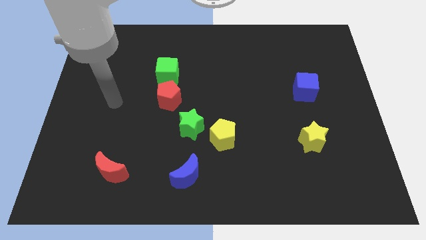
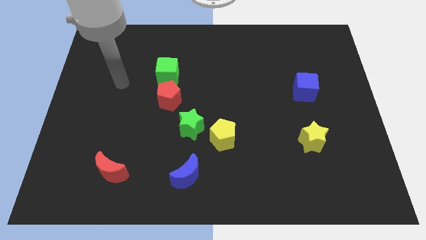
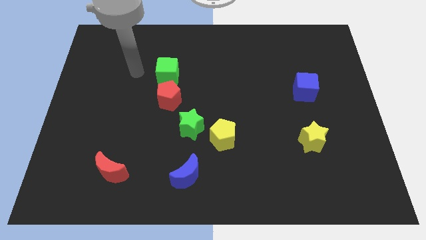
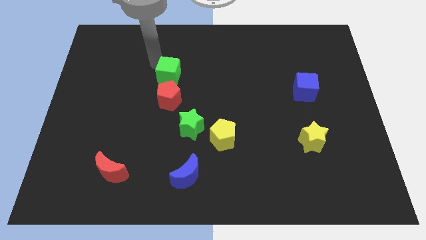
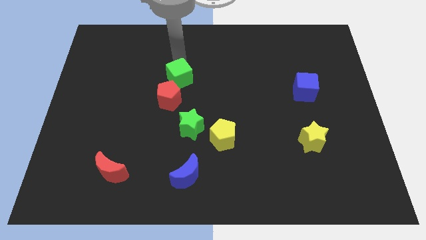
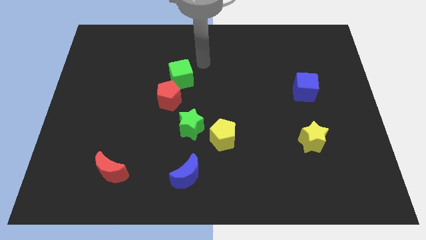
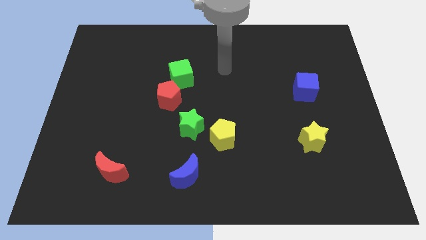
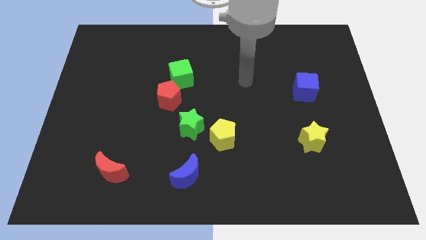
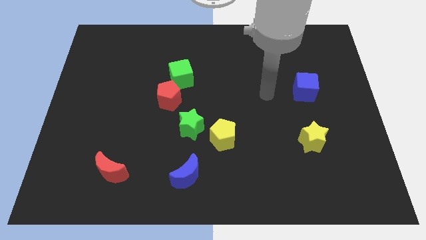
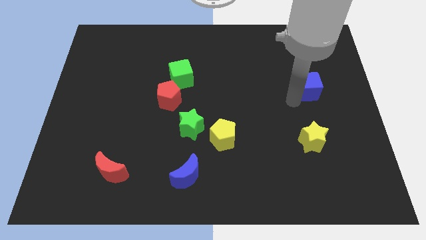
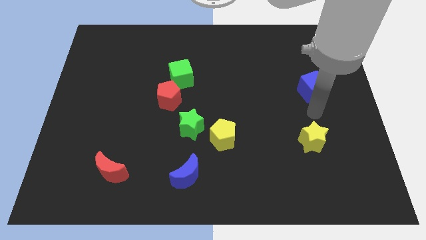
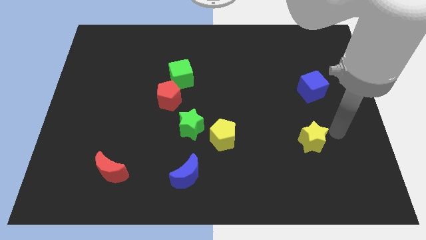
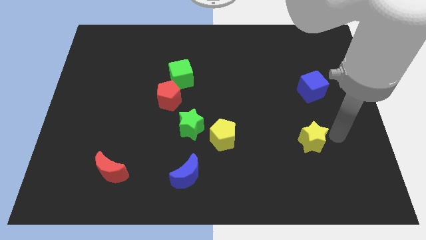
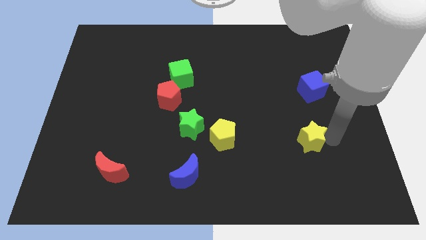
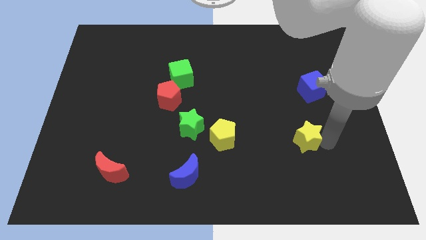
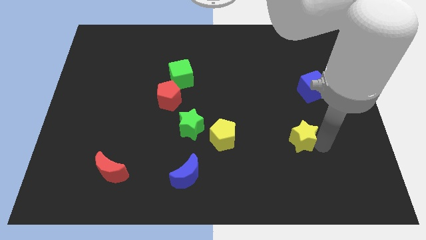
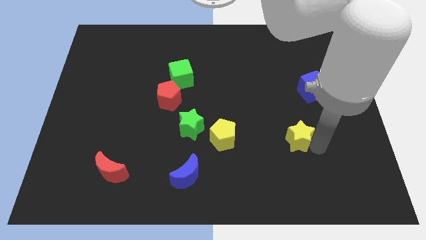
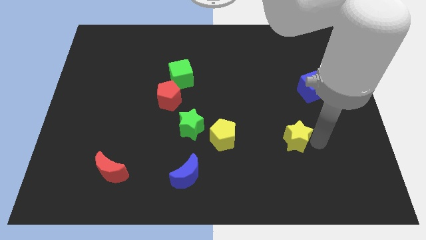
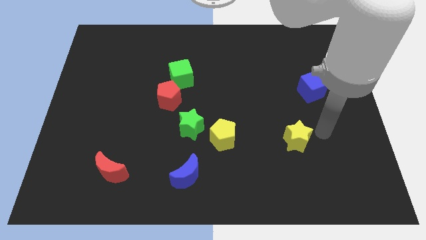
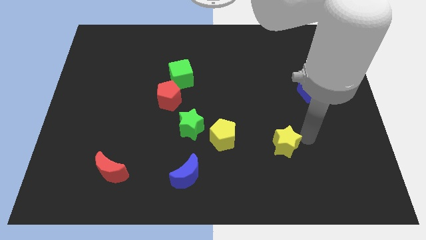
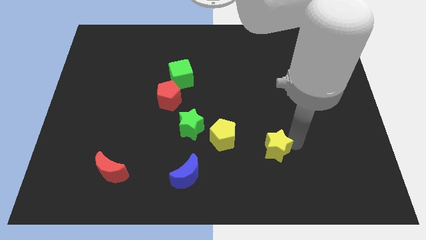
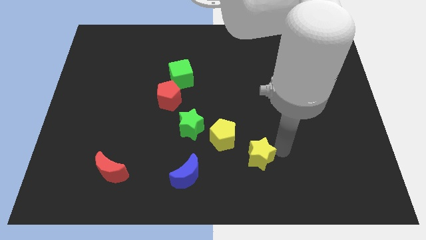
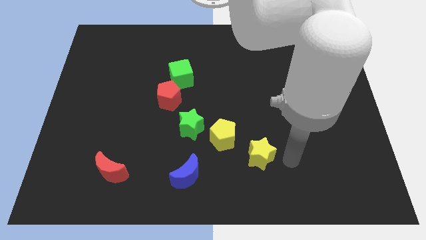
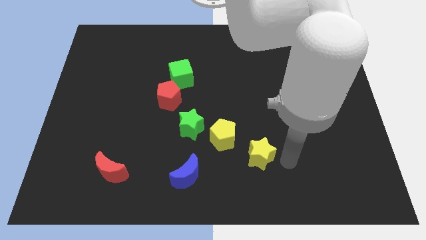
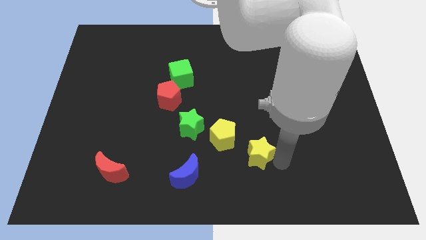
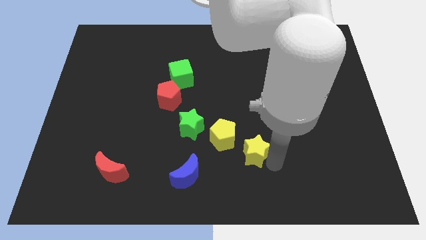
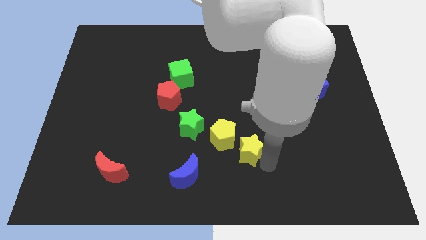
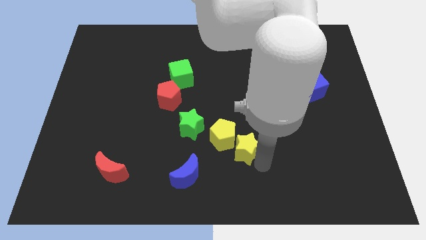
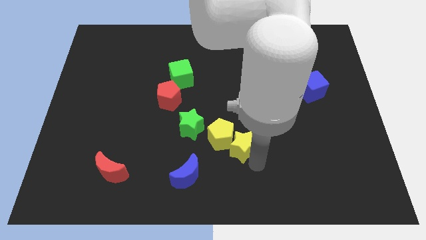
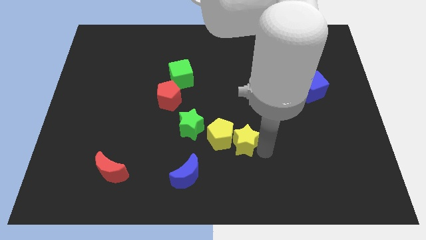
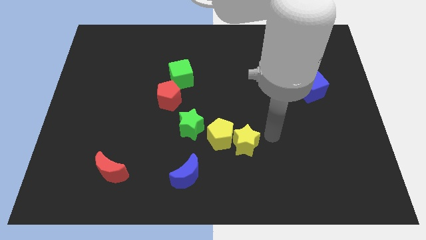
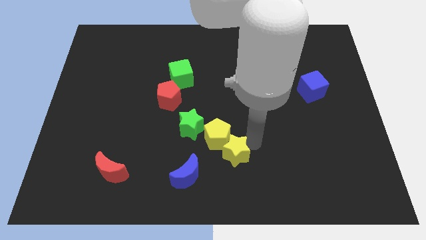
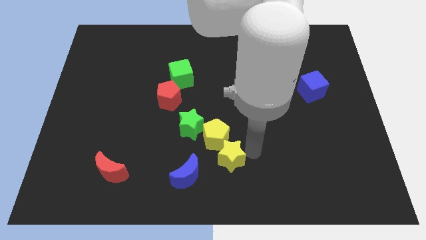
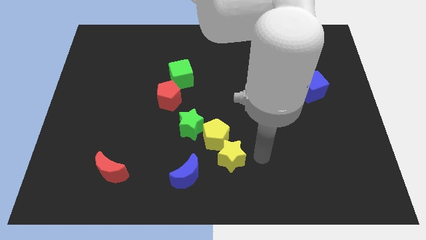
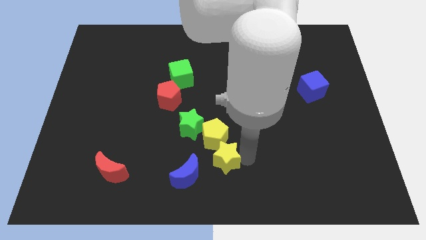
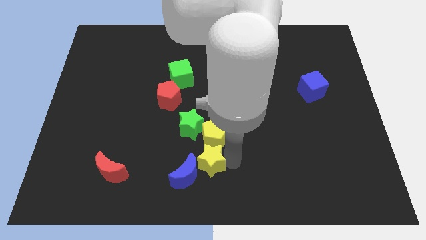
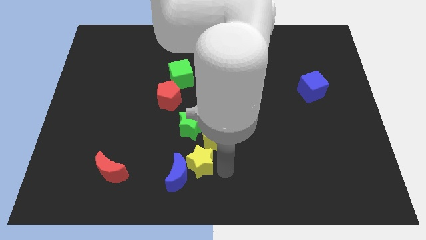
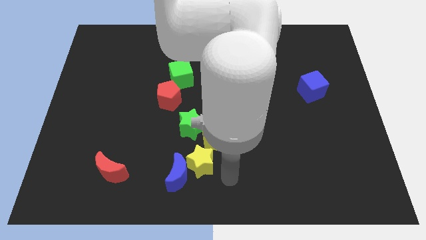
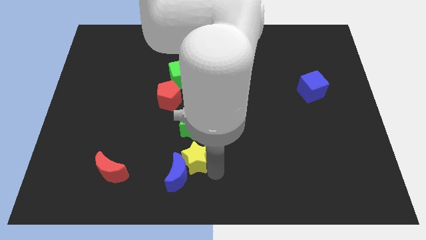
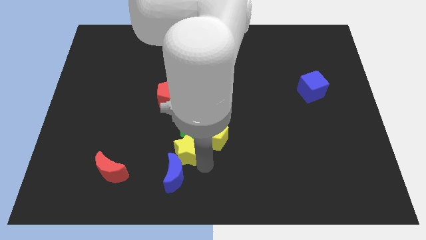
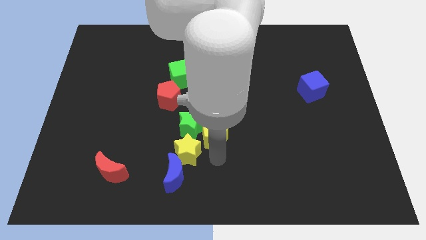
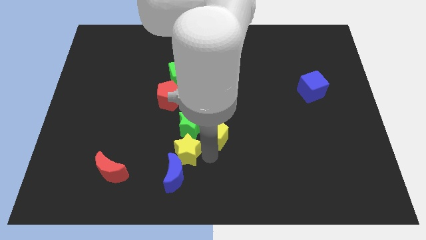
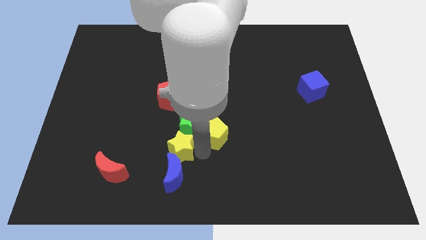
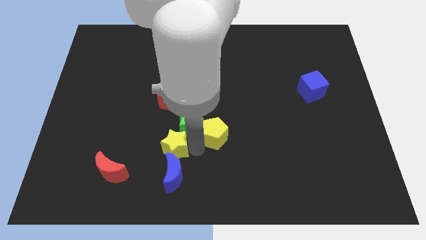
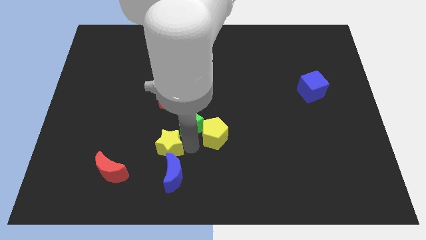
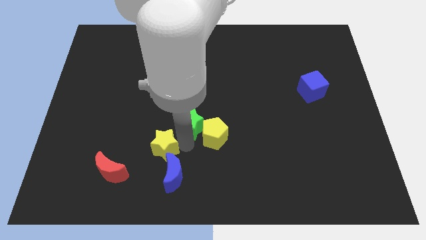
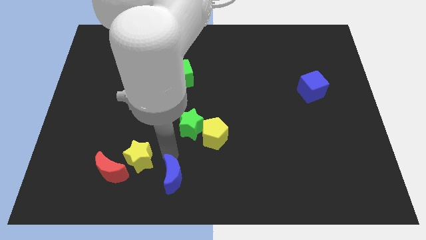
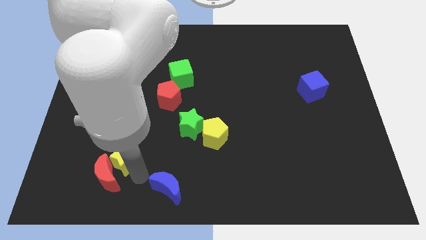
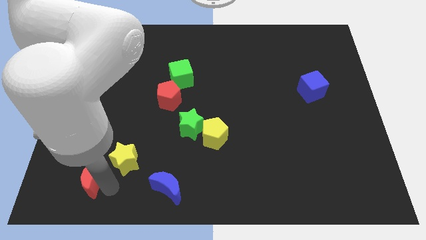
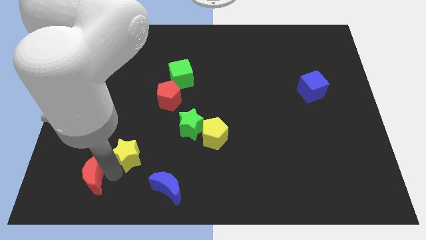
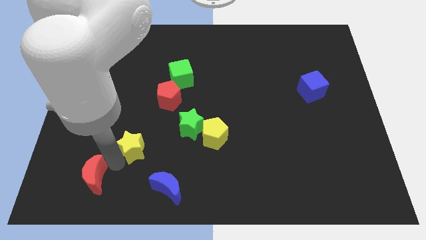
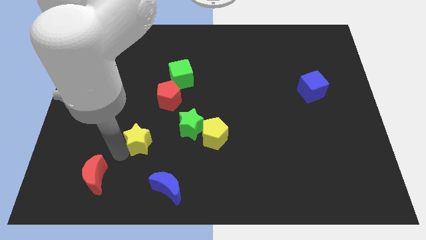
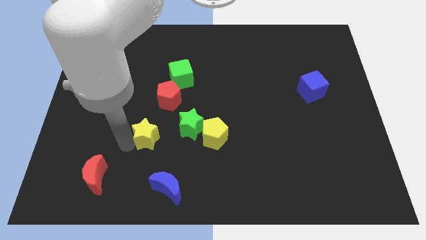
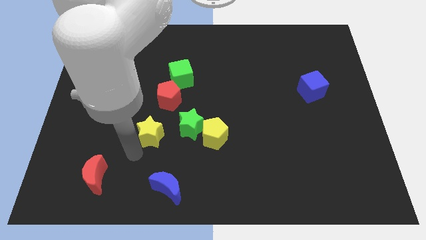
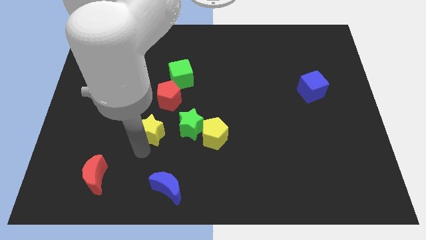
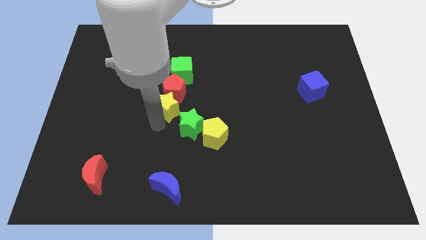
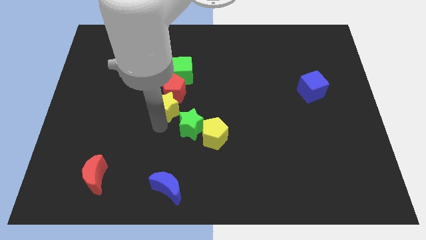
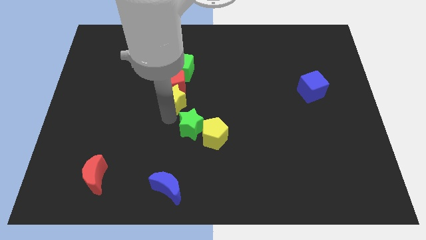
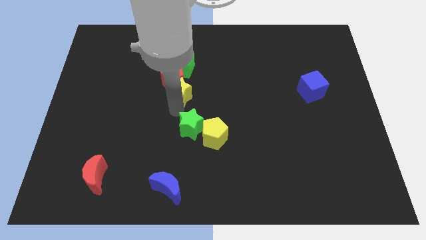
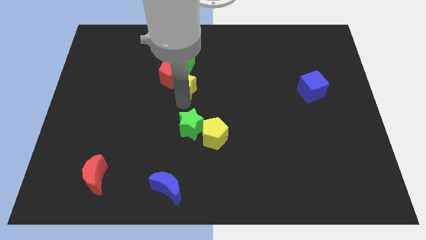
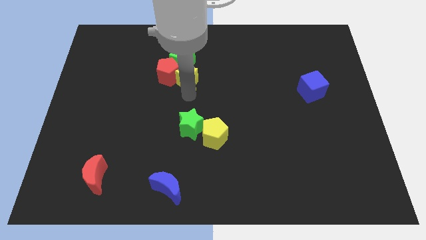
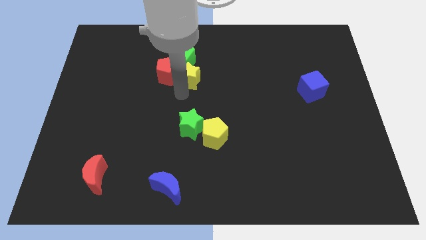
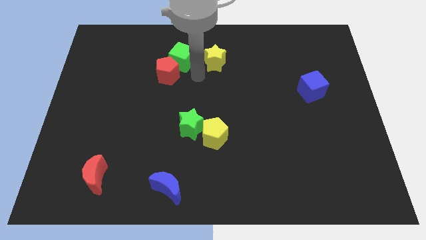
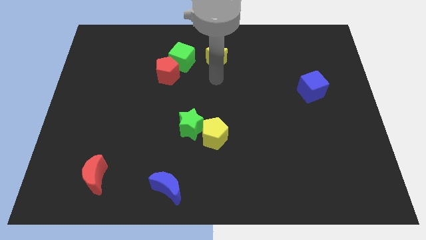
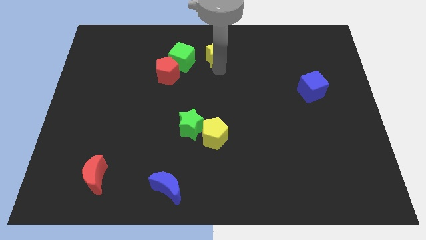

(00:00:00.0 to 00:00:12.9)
slide the yellow star to the towards your base
